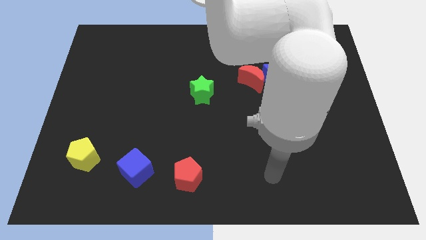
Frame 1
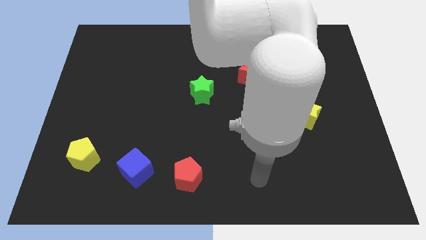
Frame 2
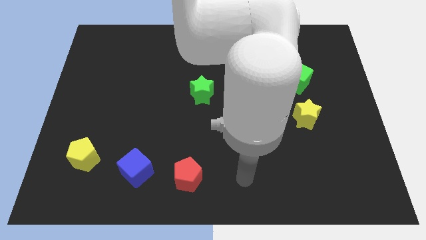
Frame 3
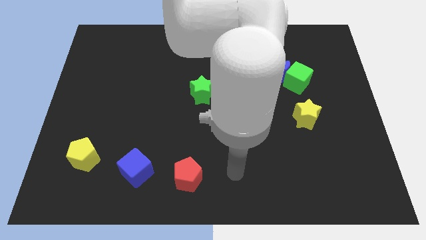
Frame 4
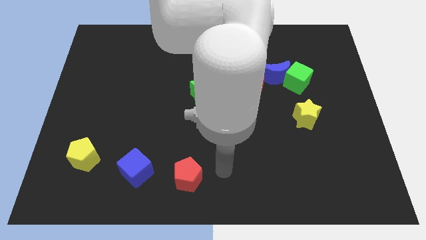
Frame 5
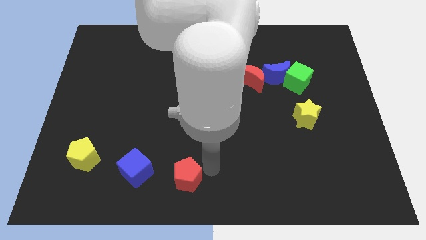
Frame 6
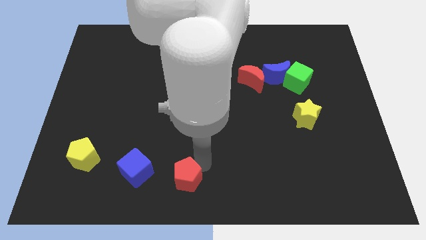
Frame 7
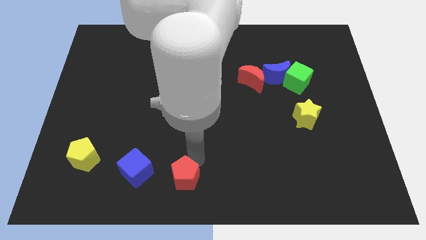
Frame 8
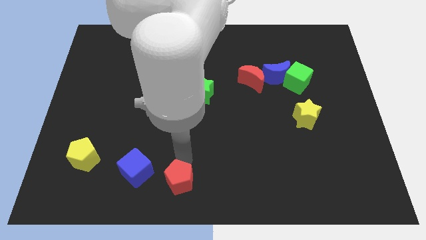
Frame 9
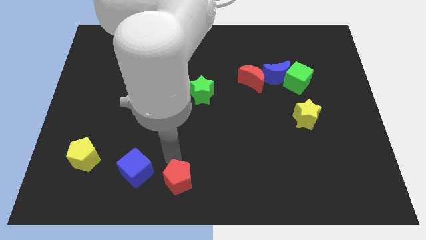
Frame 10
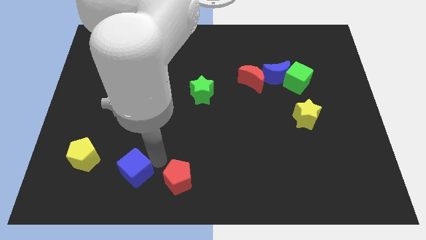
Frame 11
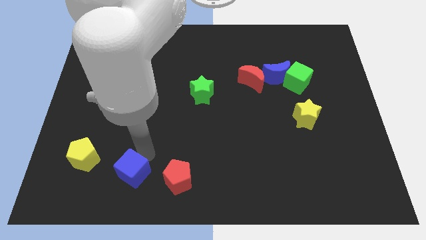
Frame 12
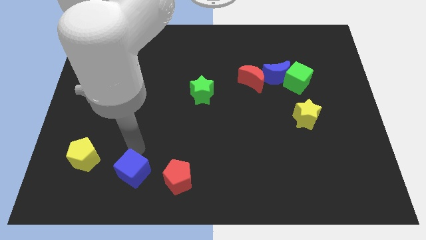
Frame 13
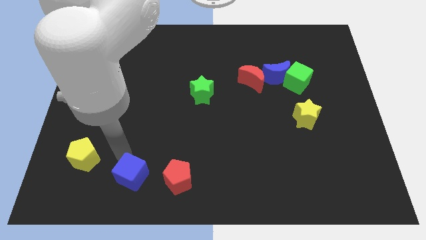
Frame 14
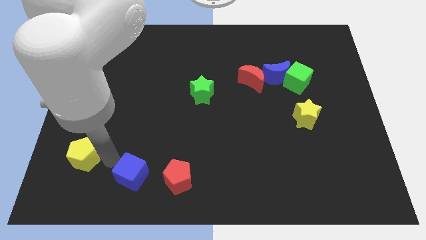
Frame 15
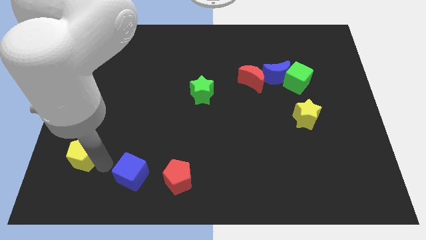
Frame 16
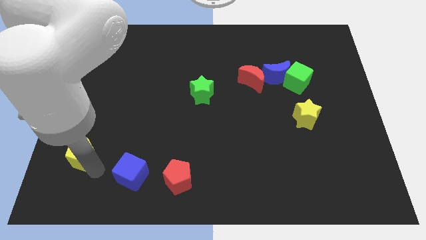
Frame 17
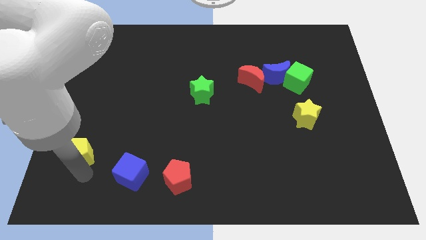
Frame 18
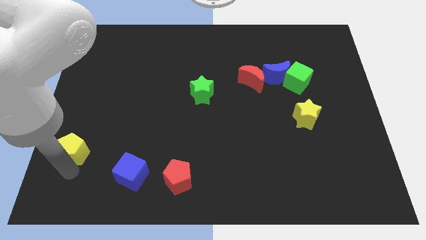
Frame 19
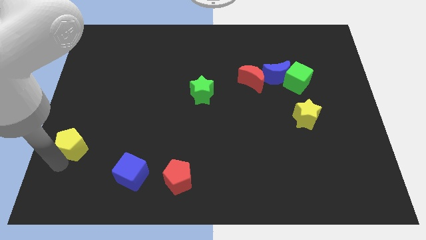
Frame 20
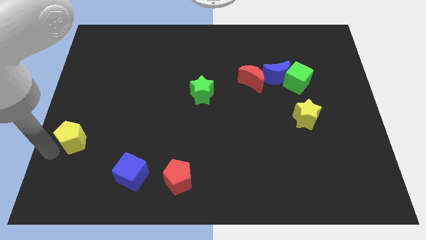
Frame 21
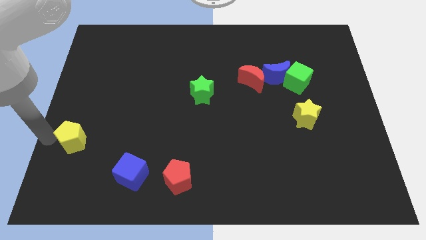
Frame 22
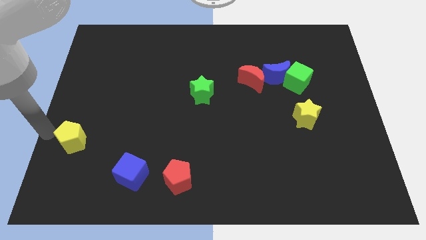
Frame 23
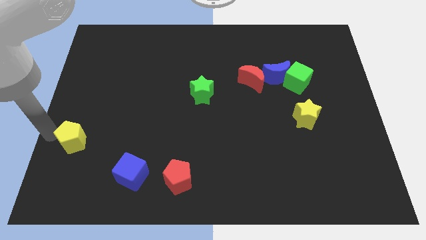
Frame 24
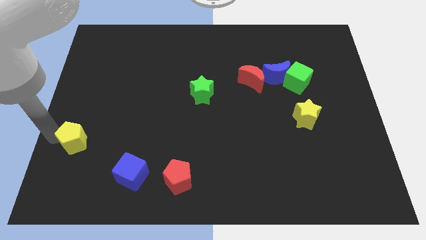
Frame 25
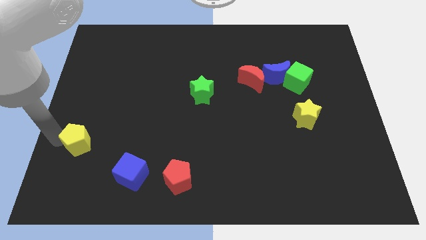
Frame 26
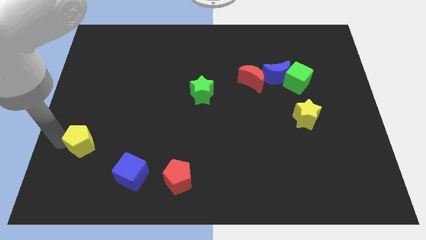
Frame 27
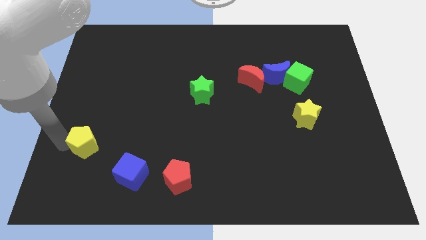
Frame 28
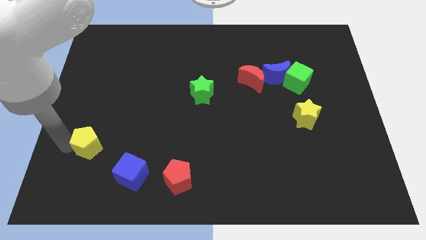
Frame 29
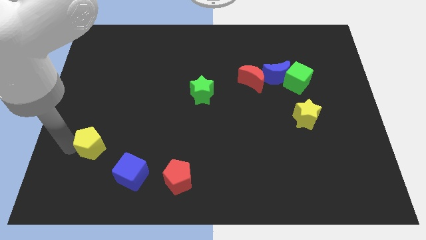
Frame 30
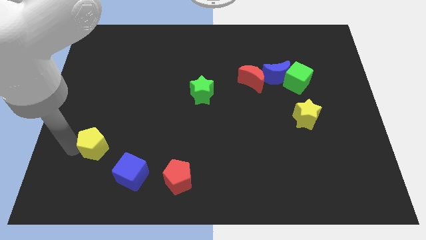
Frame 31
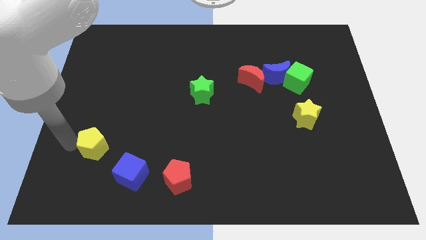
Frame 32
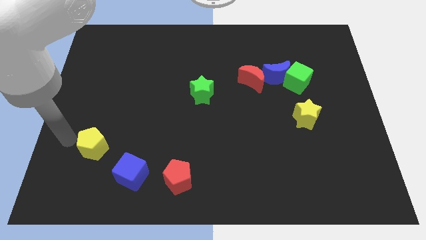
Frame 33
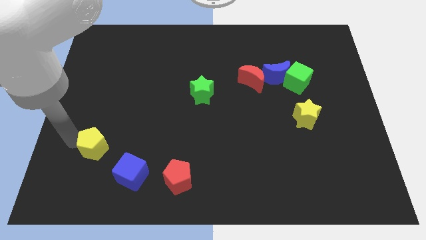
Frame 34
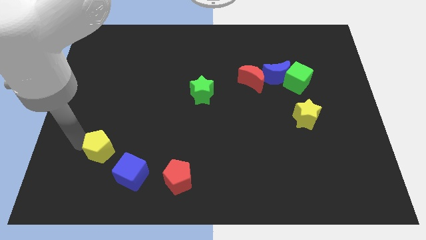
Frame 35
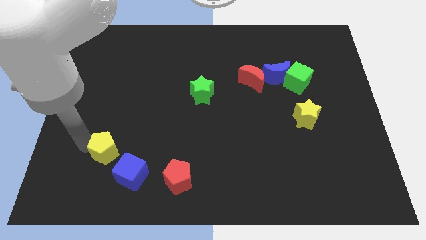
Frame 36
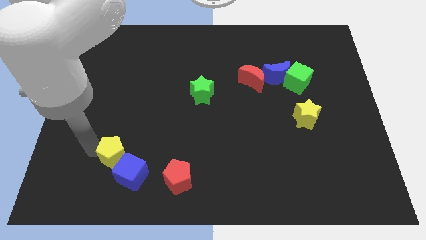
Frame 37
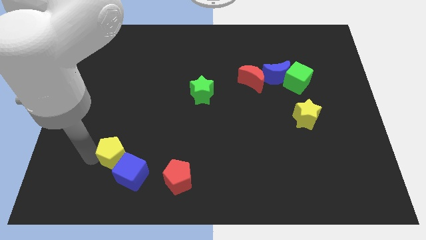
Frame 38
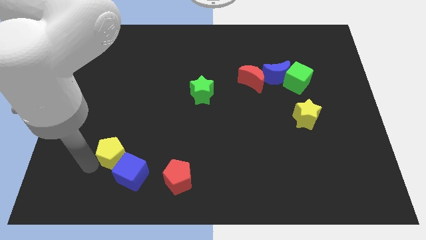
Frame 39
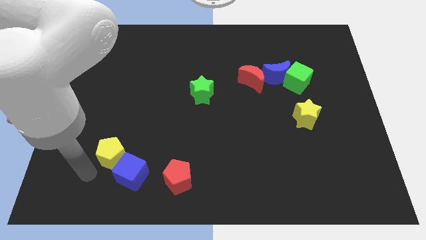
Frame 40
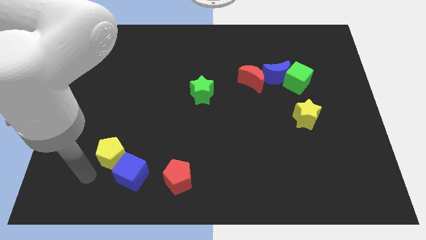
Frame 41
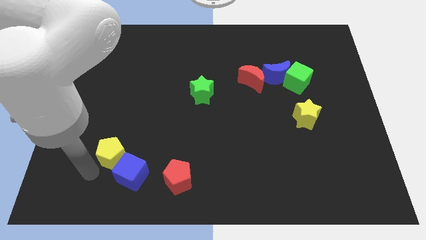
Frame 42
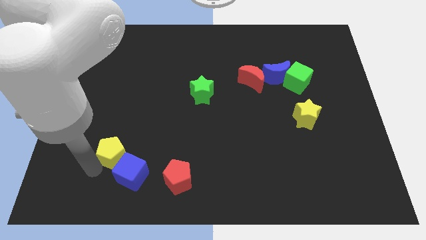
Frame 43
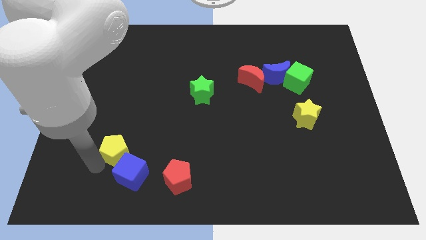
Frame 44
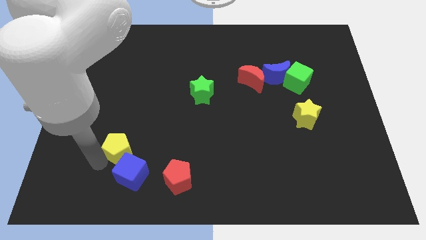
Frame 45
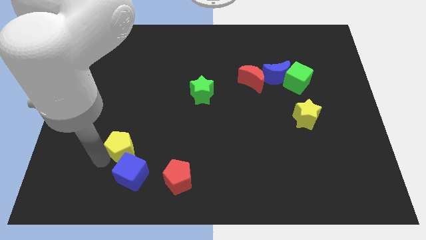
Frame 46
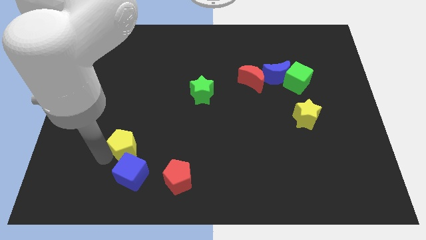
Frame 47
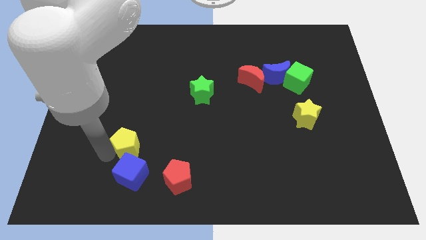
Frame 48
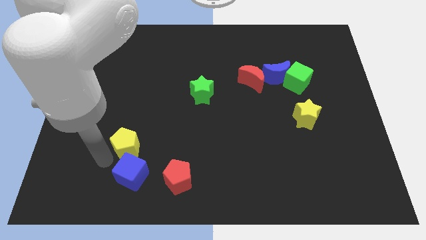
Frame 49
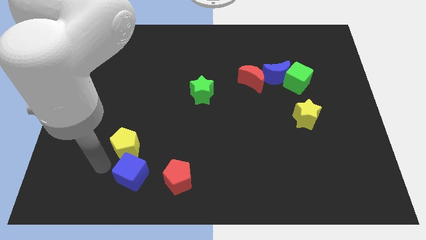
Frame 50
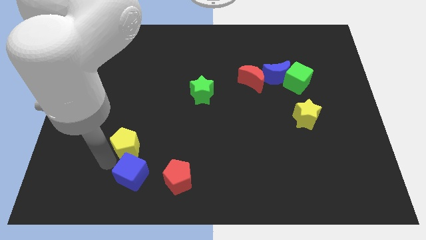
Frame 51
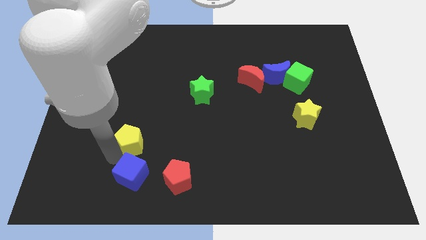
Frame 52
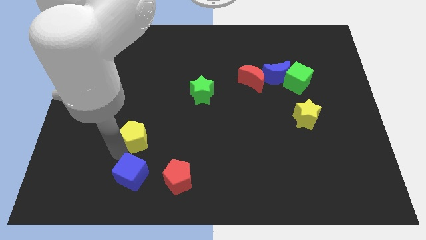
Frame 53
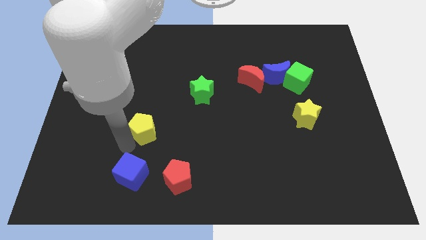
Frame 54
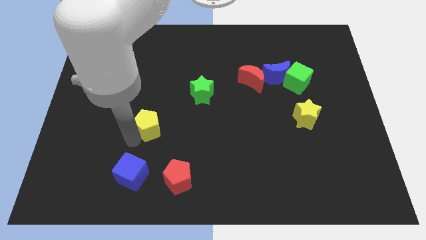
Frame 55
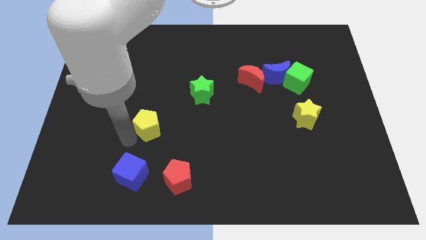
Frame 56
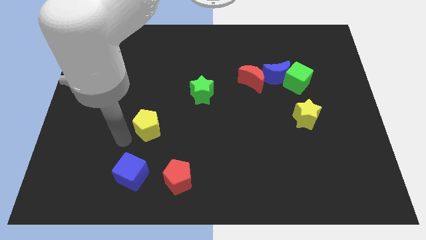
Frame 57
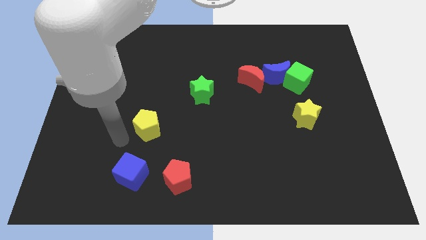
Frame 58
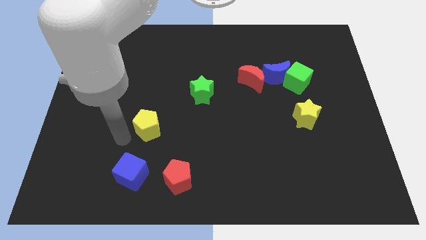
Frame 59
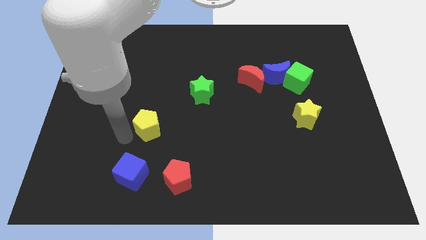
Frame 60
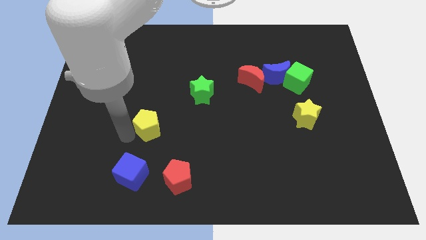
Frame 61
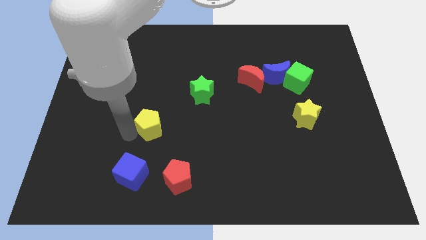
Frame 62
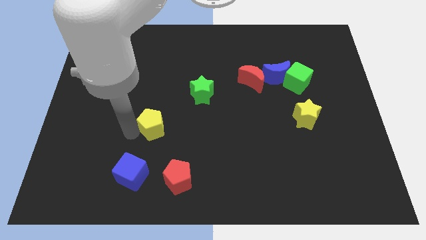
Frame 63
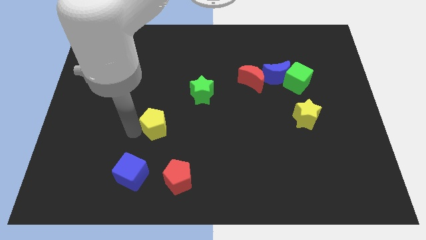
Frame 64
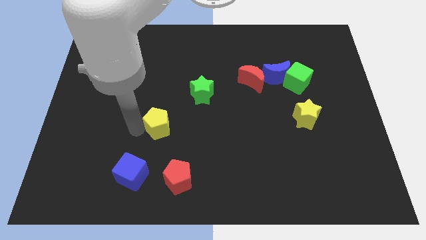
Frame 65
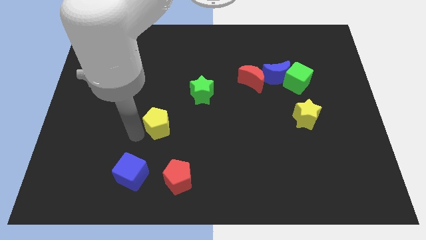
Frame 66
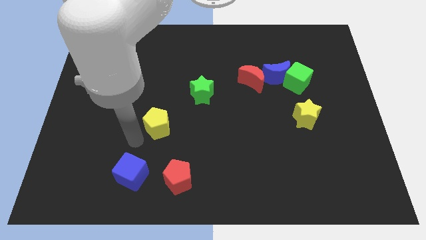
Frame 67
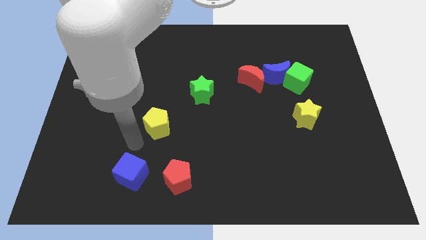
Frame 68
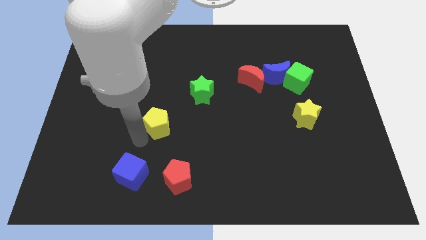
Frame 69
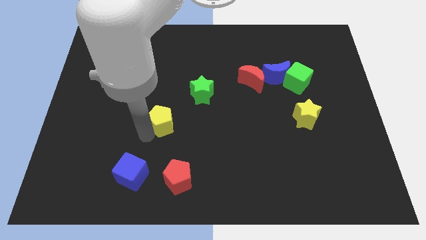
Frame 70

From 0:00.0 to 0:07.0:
move the yellow pentagon to the bottom left side of the green star
